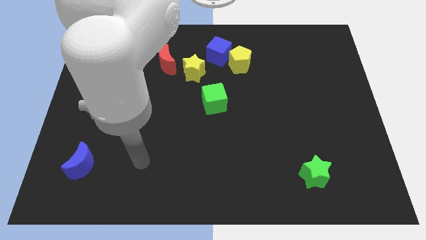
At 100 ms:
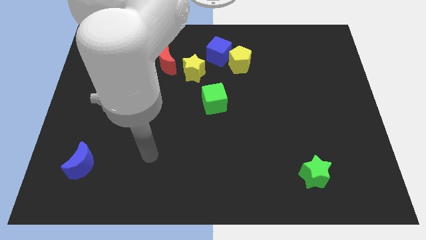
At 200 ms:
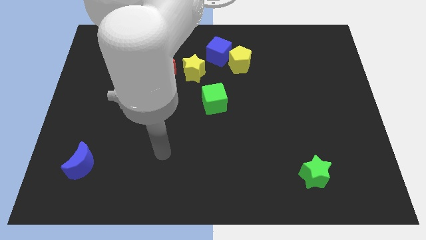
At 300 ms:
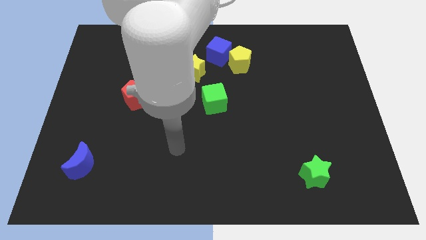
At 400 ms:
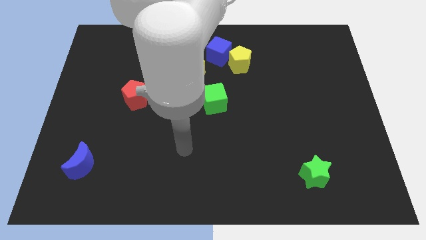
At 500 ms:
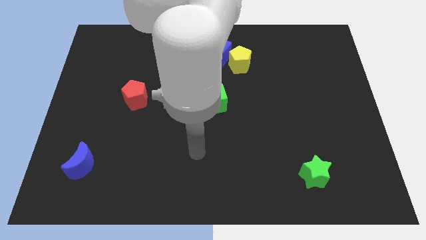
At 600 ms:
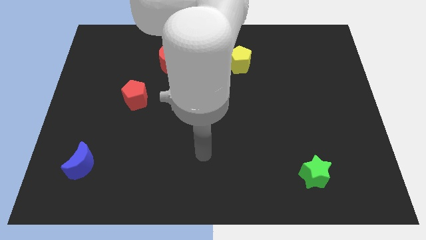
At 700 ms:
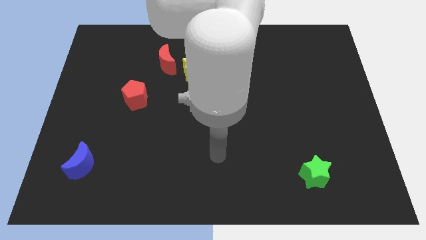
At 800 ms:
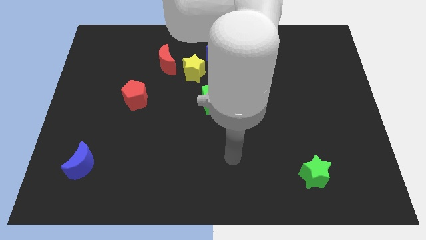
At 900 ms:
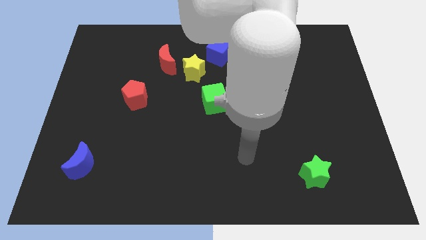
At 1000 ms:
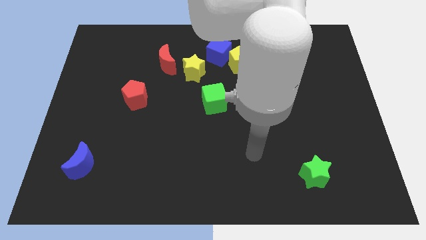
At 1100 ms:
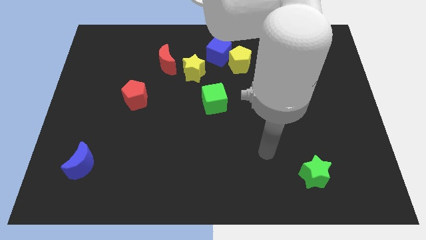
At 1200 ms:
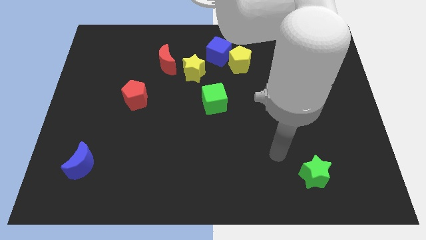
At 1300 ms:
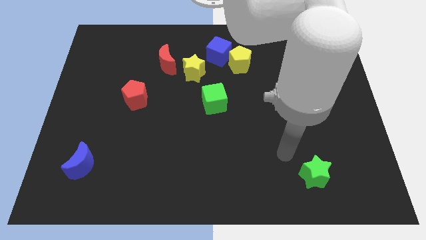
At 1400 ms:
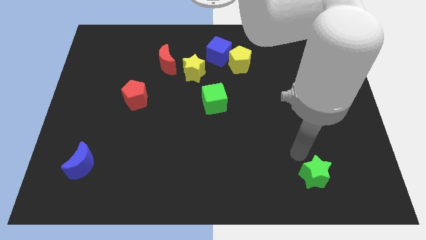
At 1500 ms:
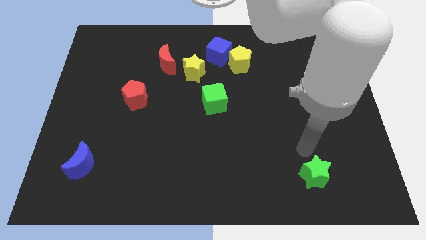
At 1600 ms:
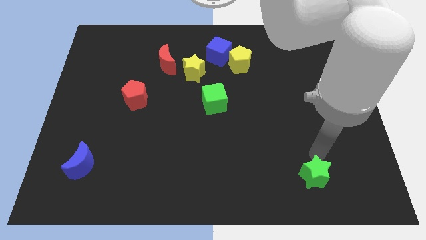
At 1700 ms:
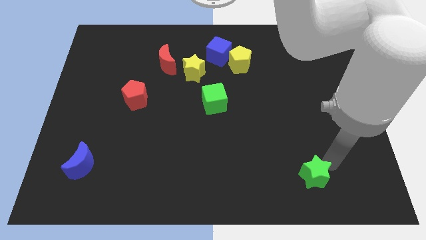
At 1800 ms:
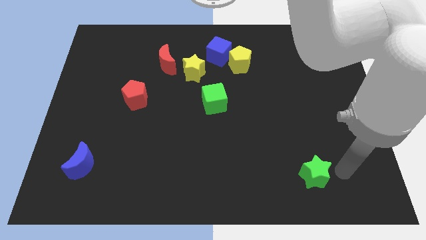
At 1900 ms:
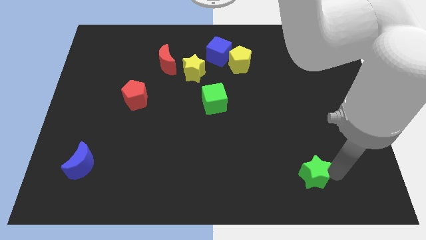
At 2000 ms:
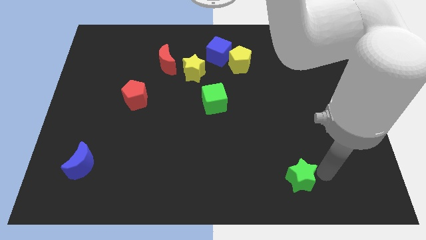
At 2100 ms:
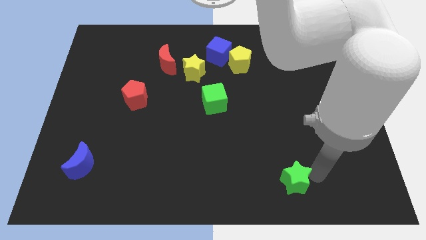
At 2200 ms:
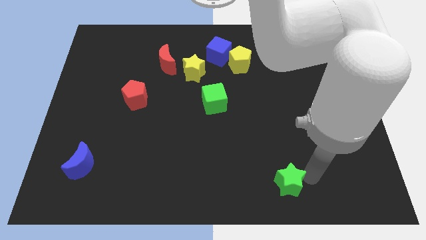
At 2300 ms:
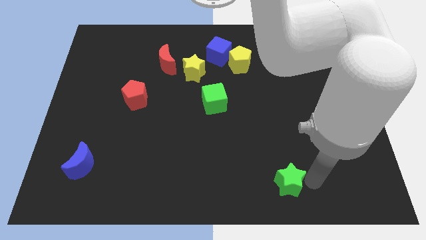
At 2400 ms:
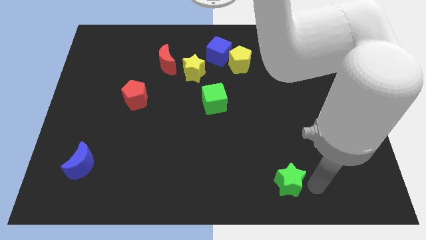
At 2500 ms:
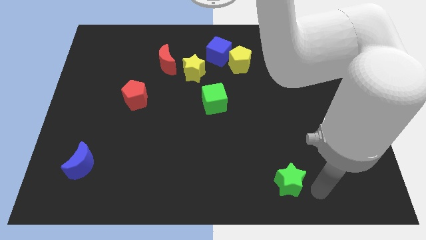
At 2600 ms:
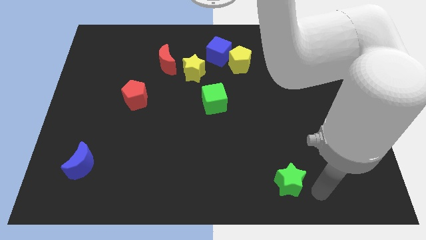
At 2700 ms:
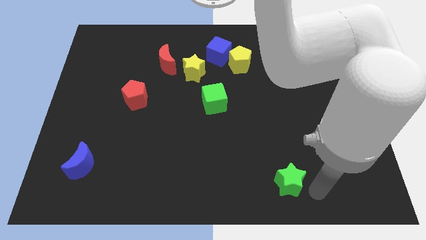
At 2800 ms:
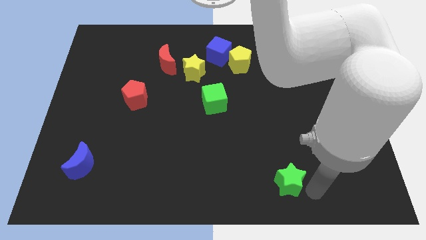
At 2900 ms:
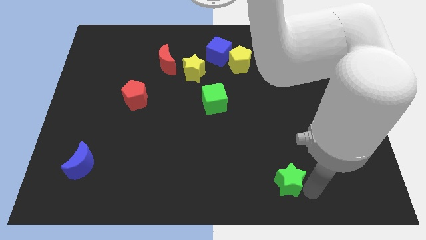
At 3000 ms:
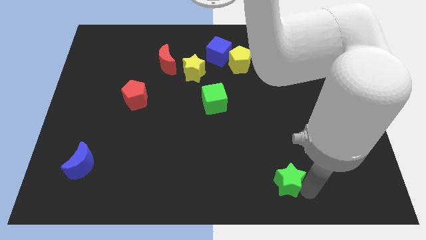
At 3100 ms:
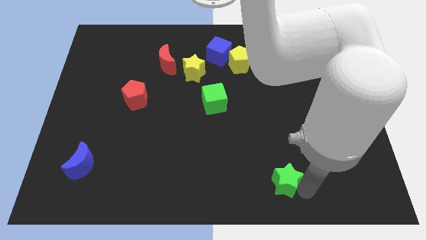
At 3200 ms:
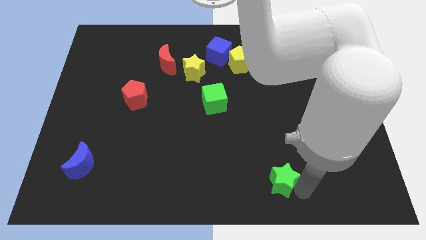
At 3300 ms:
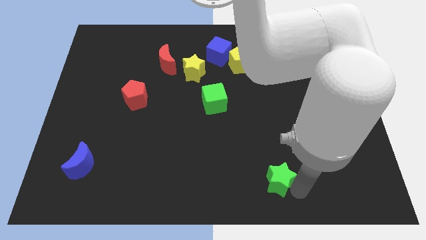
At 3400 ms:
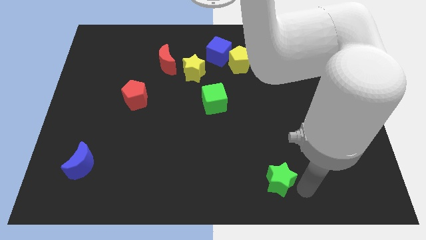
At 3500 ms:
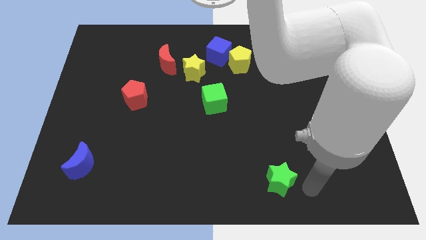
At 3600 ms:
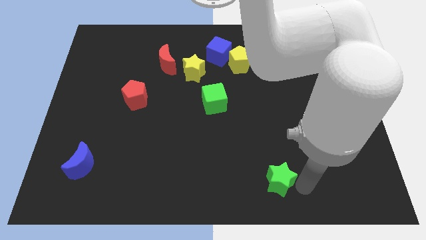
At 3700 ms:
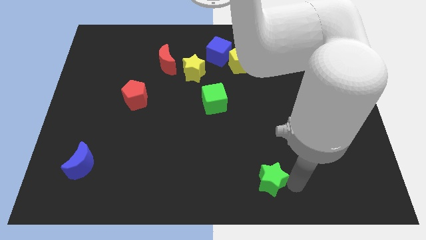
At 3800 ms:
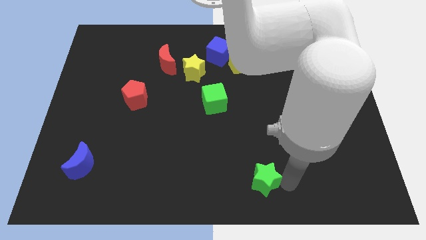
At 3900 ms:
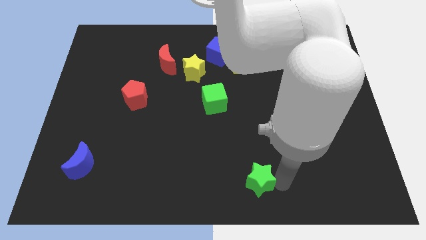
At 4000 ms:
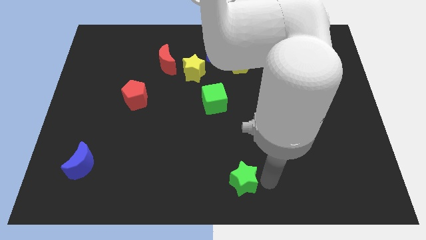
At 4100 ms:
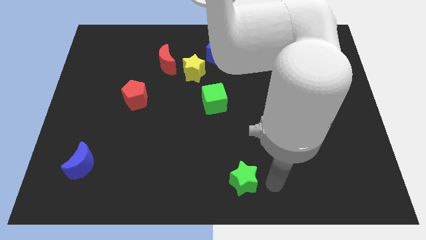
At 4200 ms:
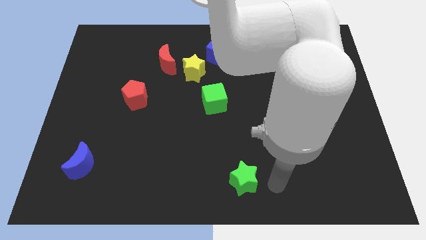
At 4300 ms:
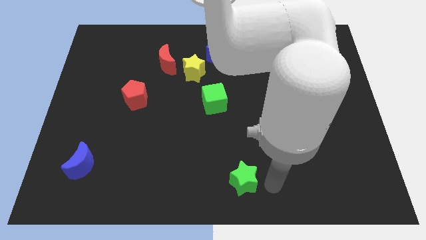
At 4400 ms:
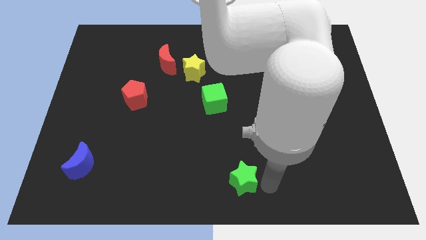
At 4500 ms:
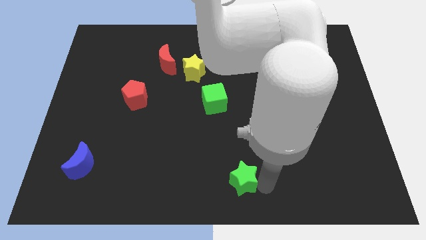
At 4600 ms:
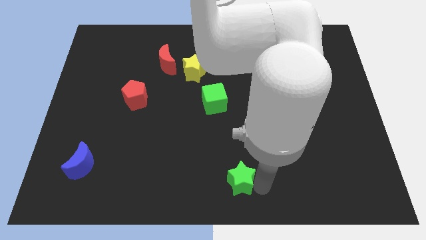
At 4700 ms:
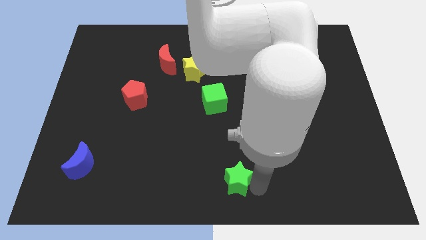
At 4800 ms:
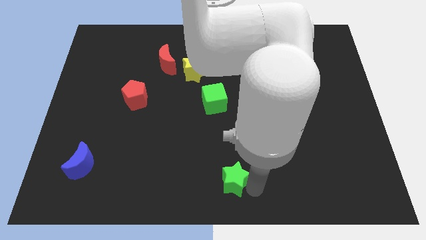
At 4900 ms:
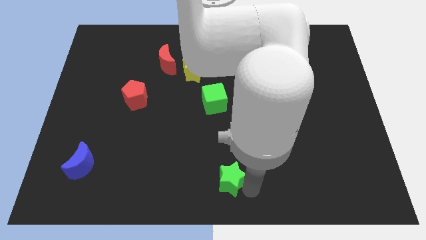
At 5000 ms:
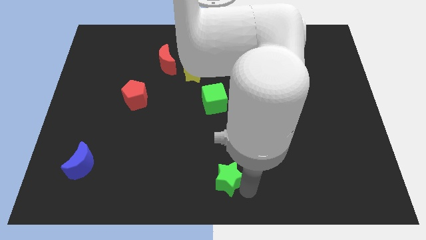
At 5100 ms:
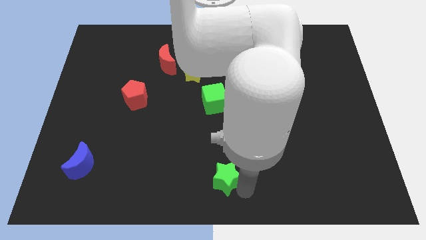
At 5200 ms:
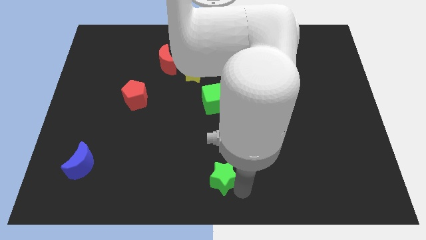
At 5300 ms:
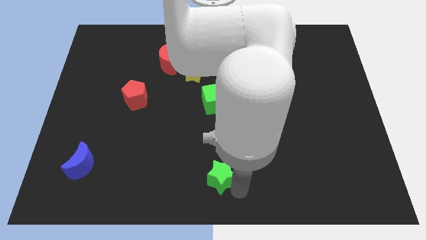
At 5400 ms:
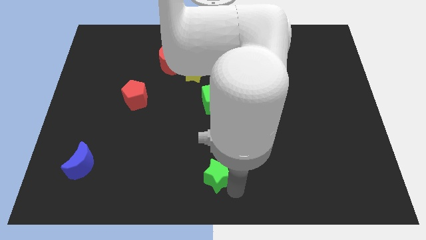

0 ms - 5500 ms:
push the green star to the left

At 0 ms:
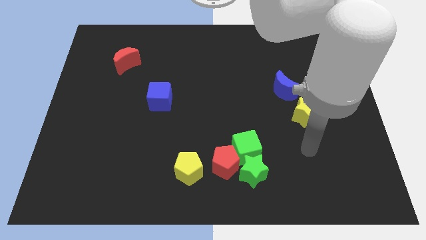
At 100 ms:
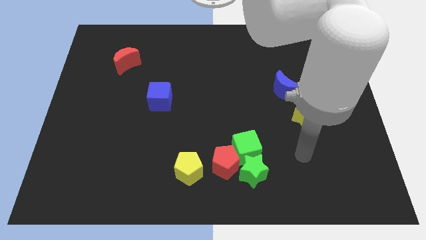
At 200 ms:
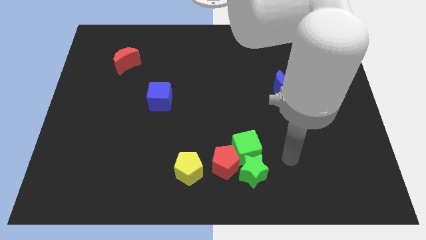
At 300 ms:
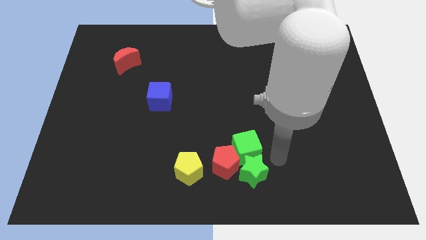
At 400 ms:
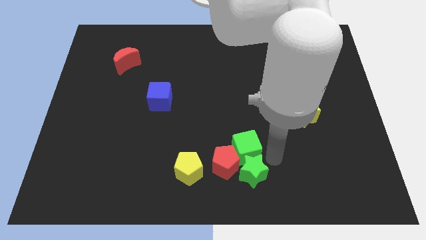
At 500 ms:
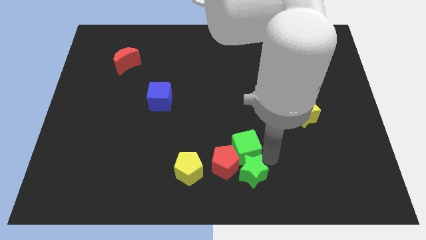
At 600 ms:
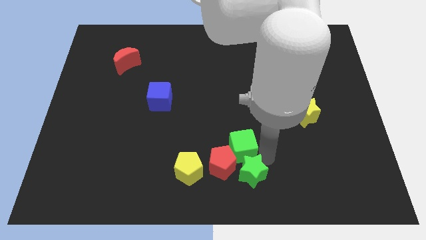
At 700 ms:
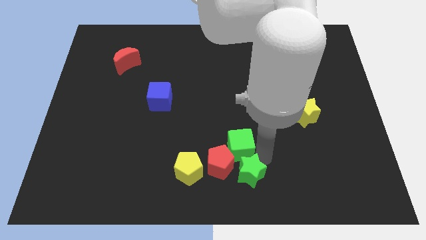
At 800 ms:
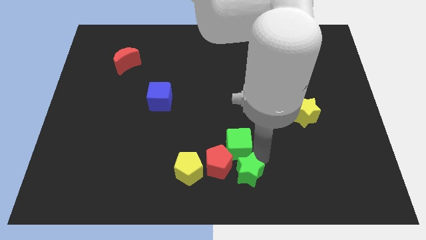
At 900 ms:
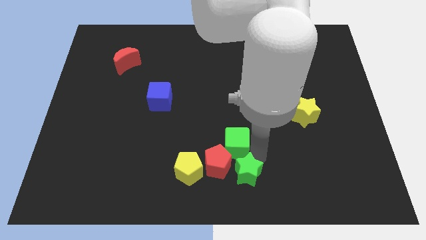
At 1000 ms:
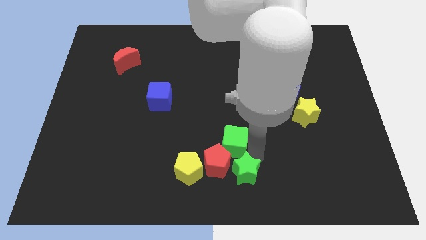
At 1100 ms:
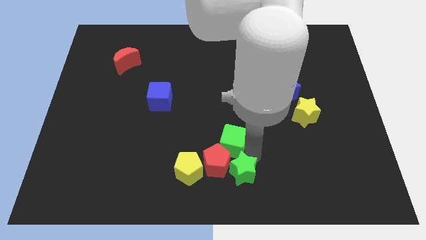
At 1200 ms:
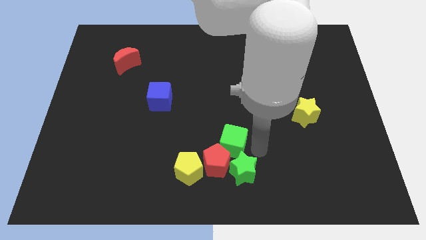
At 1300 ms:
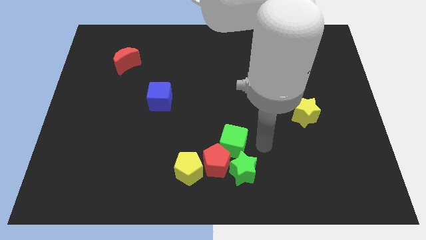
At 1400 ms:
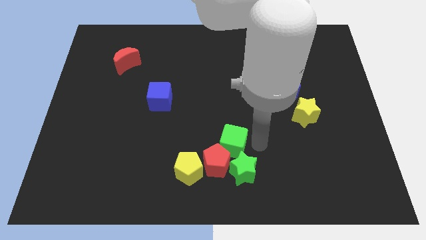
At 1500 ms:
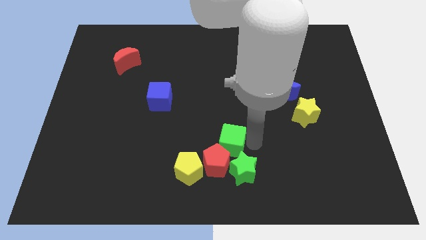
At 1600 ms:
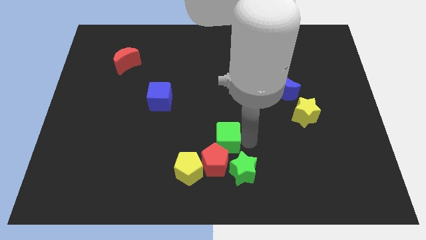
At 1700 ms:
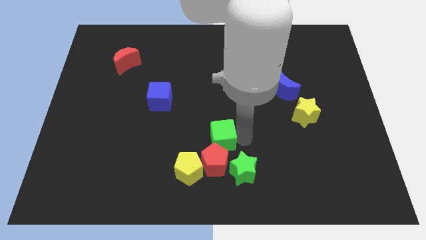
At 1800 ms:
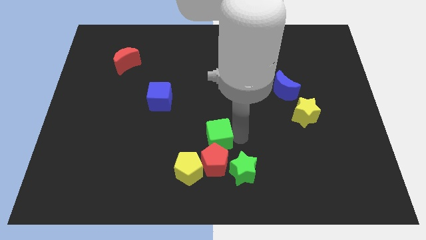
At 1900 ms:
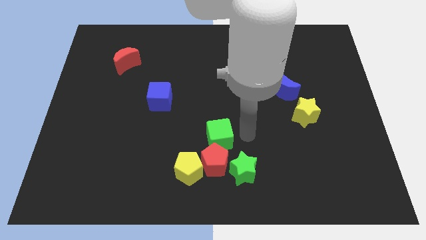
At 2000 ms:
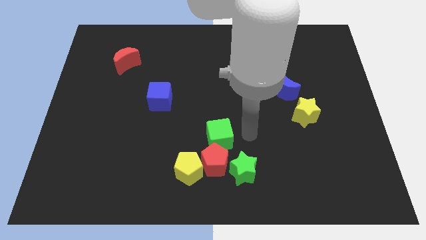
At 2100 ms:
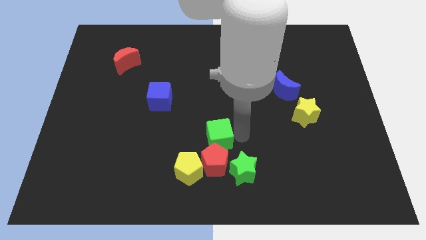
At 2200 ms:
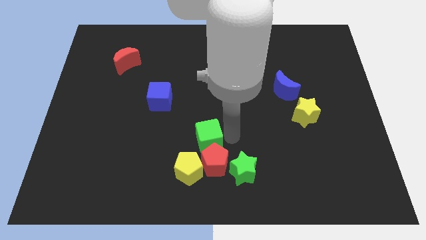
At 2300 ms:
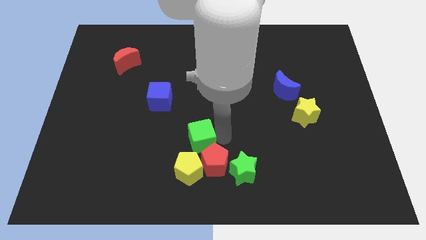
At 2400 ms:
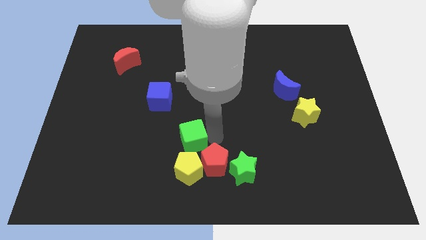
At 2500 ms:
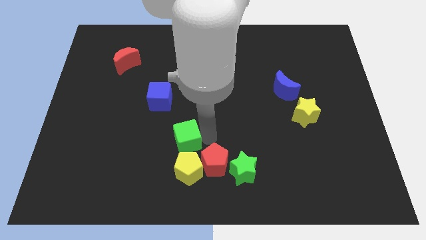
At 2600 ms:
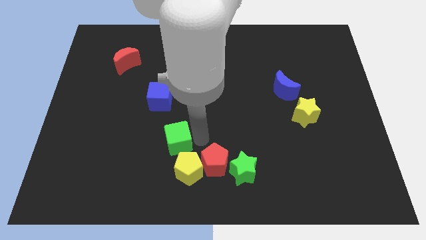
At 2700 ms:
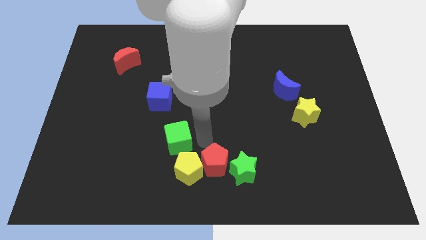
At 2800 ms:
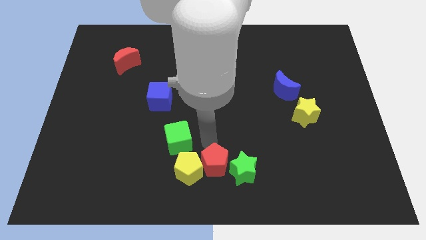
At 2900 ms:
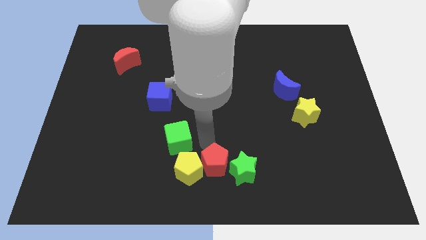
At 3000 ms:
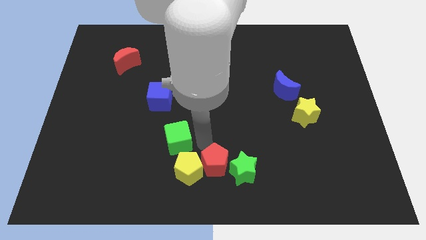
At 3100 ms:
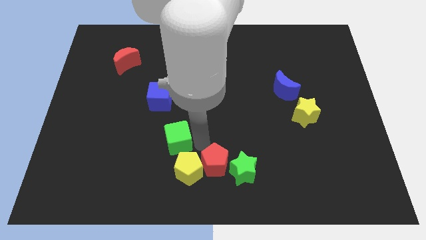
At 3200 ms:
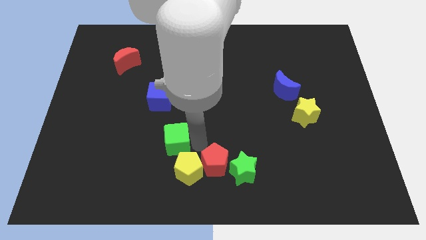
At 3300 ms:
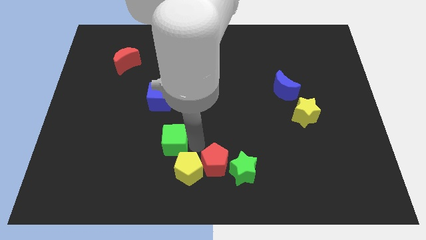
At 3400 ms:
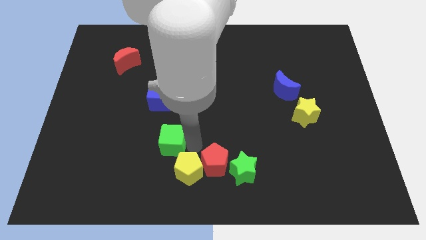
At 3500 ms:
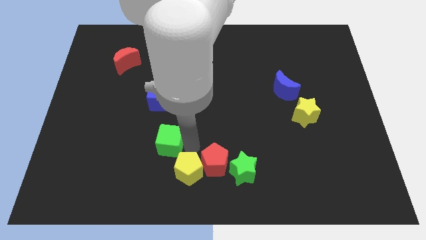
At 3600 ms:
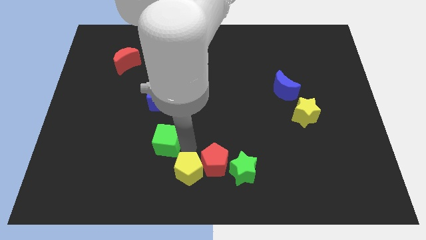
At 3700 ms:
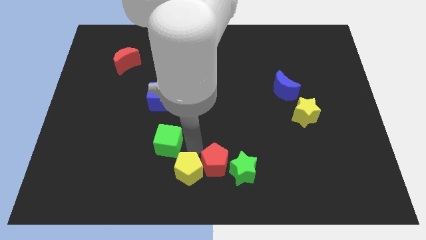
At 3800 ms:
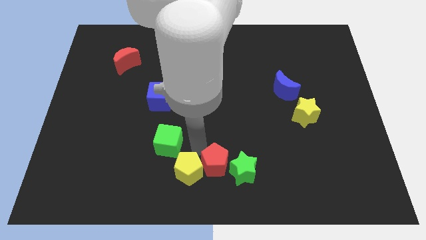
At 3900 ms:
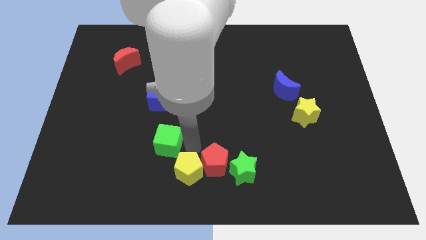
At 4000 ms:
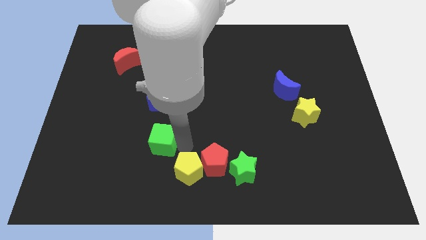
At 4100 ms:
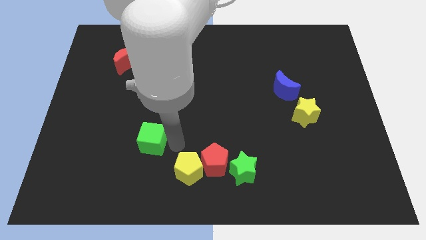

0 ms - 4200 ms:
push the green cube left
